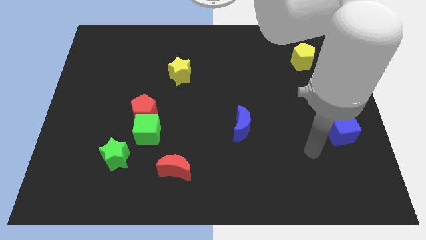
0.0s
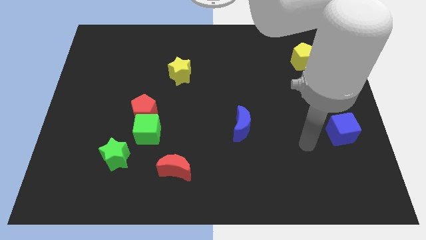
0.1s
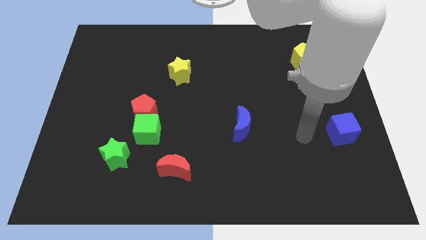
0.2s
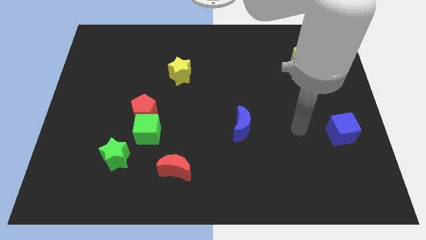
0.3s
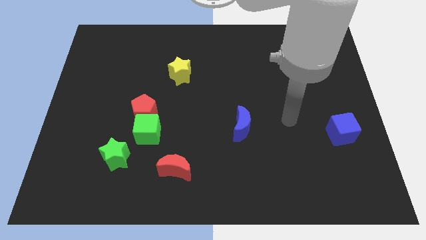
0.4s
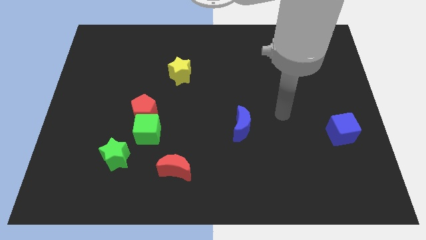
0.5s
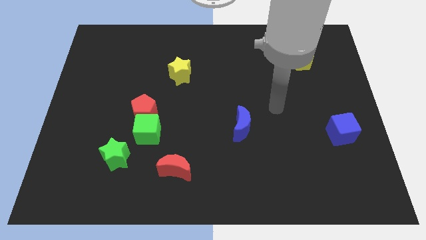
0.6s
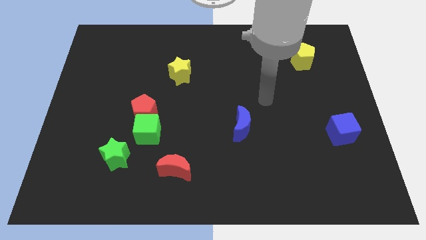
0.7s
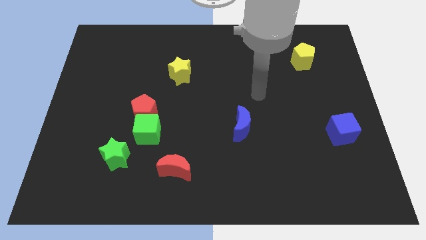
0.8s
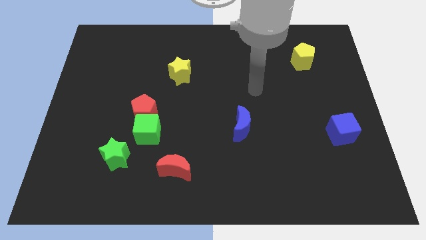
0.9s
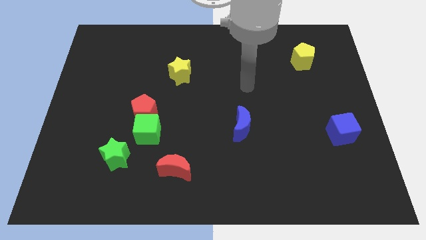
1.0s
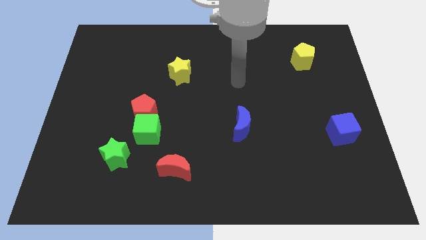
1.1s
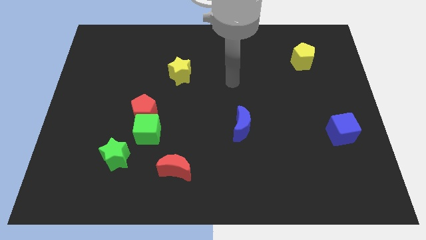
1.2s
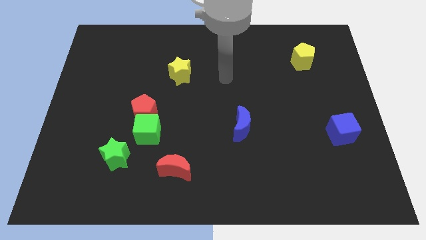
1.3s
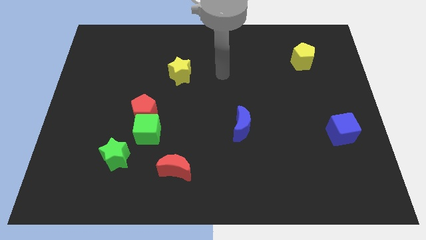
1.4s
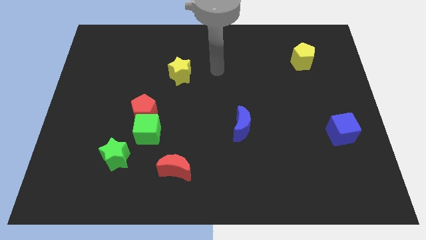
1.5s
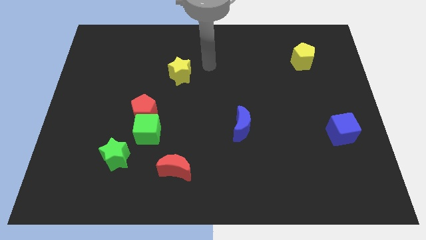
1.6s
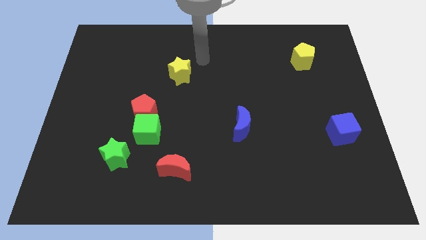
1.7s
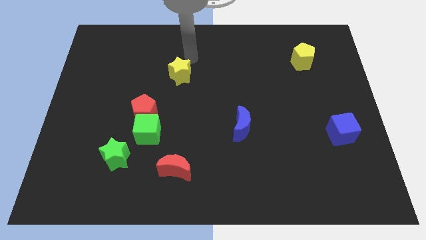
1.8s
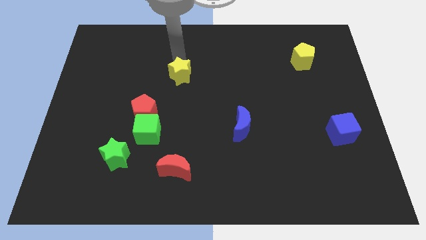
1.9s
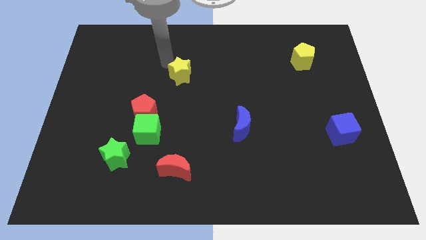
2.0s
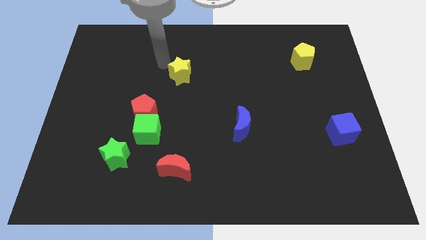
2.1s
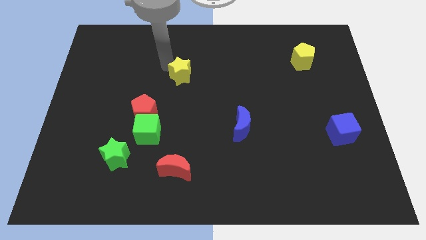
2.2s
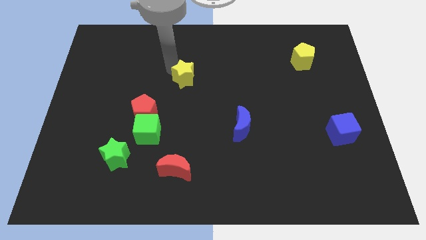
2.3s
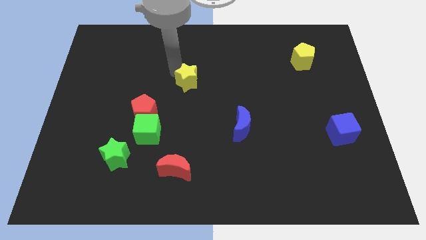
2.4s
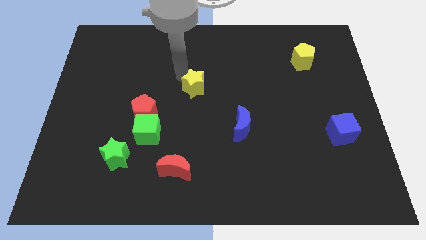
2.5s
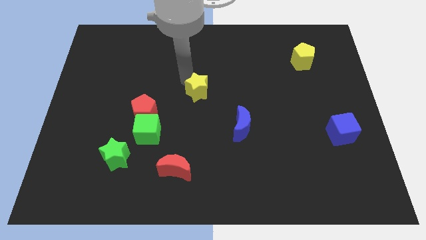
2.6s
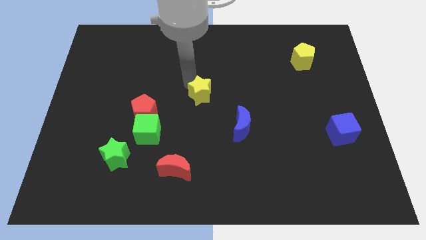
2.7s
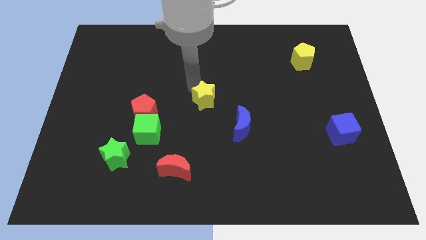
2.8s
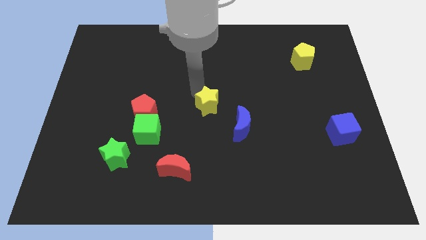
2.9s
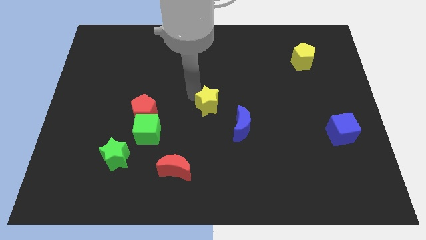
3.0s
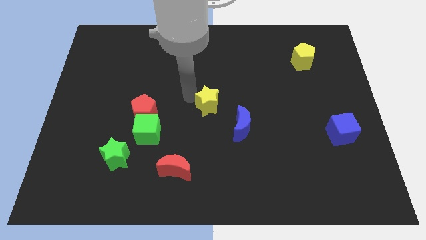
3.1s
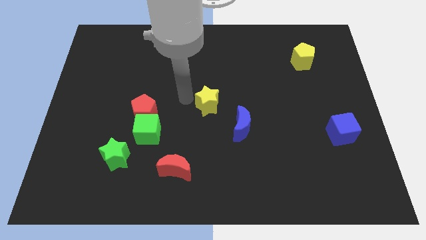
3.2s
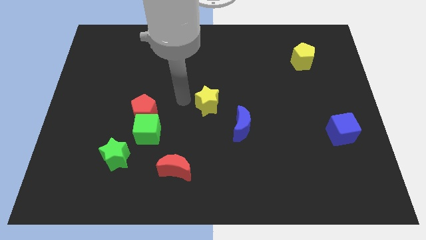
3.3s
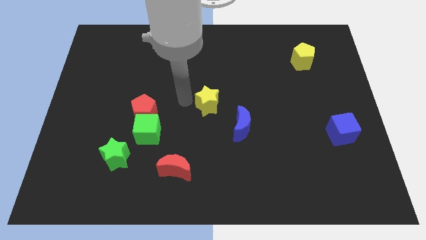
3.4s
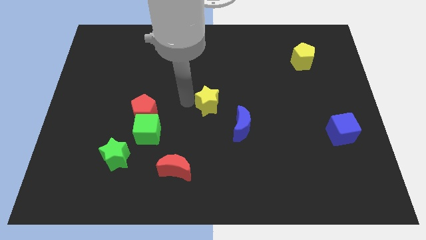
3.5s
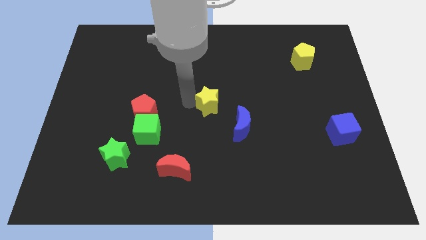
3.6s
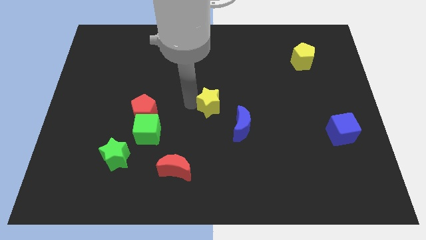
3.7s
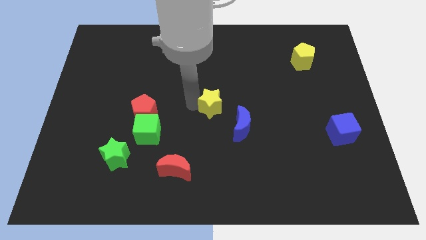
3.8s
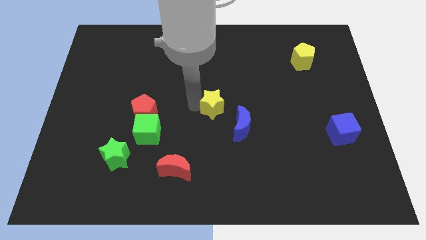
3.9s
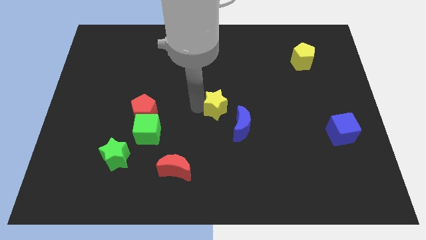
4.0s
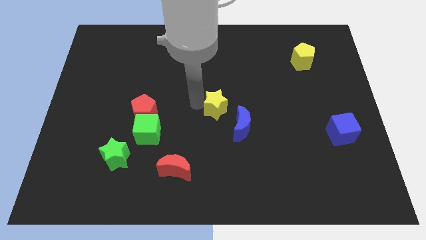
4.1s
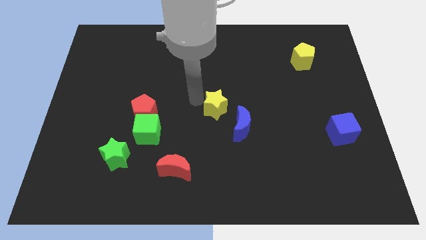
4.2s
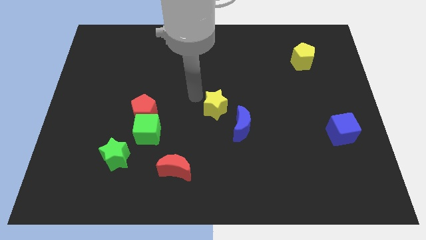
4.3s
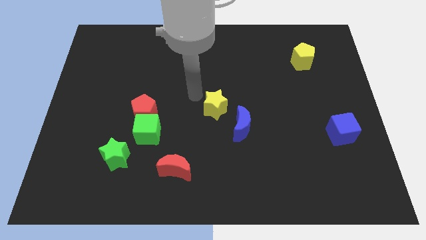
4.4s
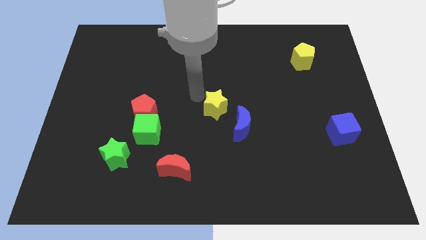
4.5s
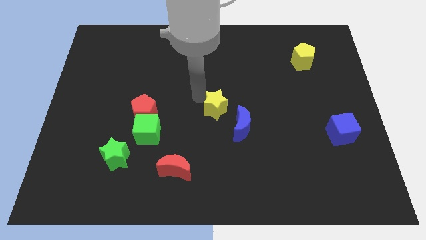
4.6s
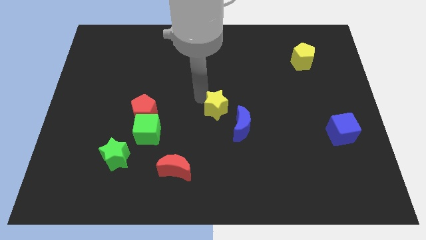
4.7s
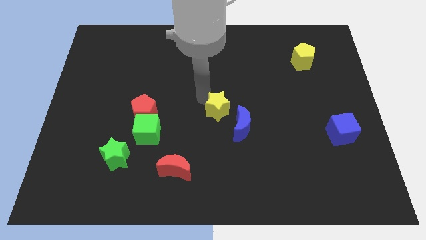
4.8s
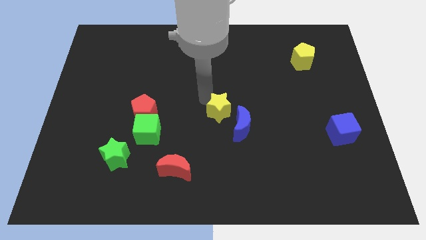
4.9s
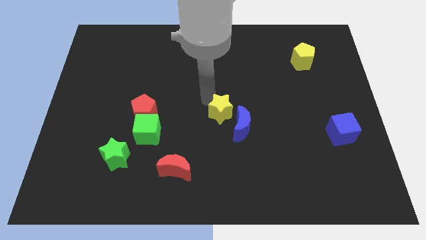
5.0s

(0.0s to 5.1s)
slide the yellow star close to the blue moon

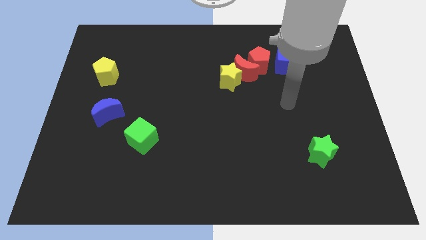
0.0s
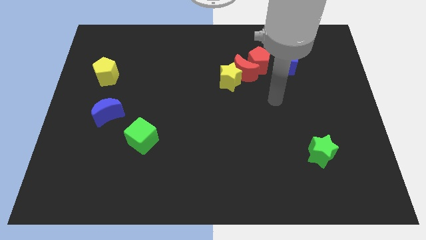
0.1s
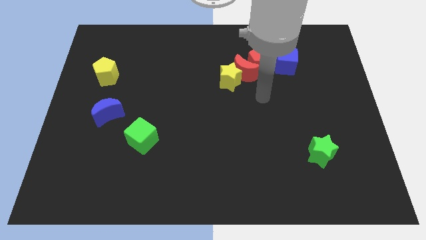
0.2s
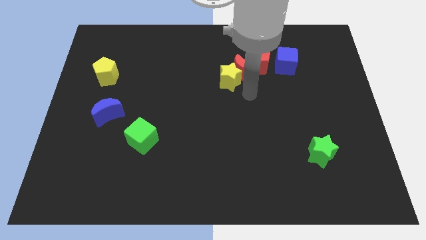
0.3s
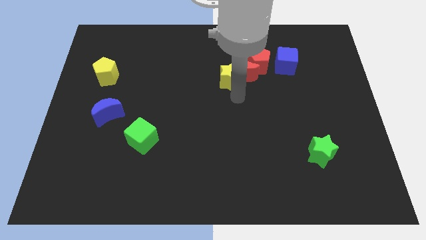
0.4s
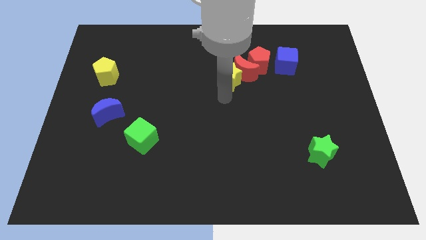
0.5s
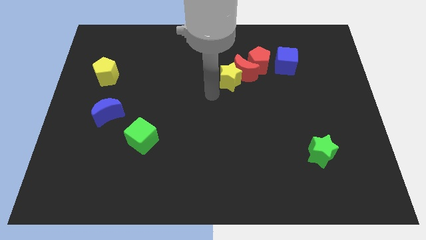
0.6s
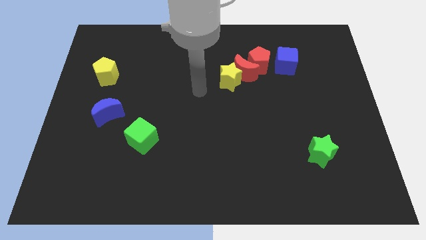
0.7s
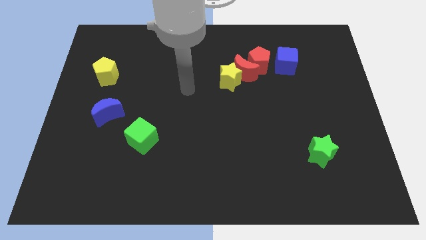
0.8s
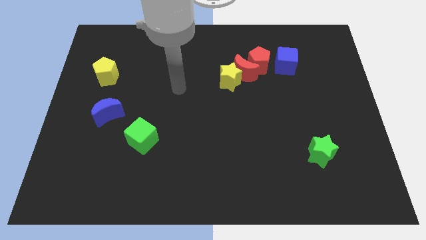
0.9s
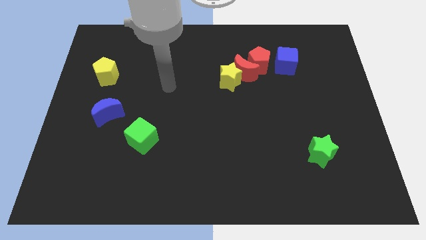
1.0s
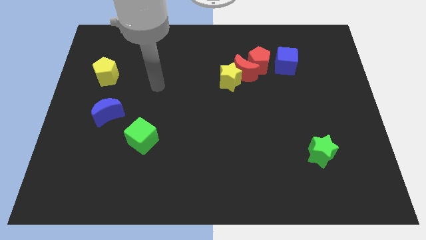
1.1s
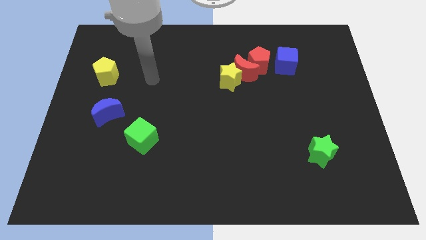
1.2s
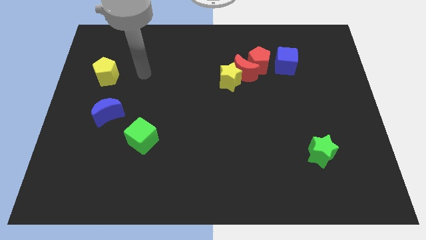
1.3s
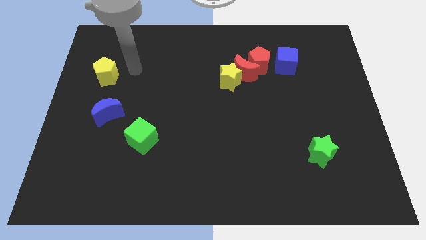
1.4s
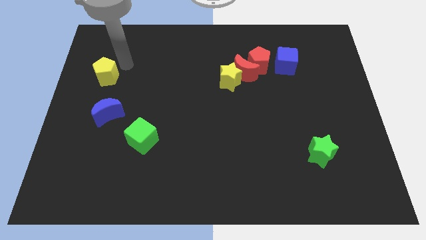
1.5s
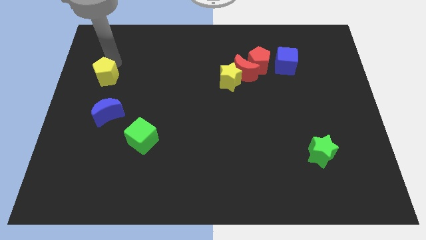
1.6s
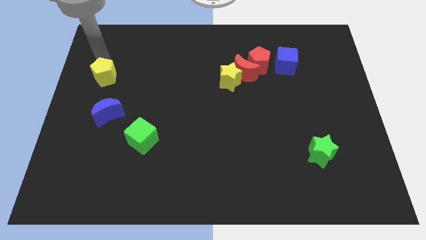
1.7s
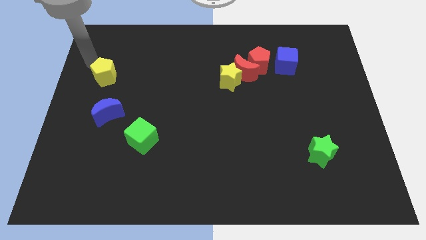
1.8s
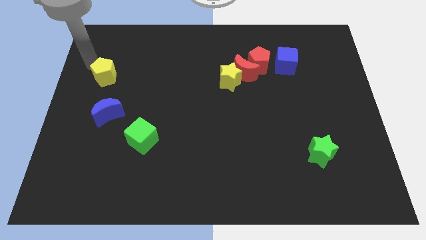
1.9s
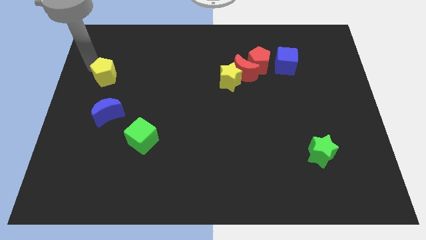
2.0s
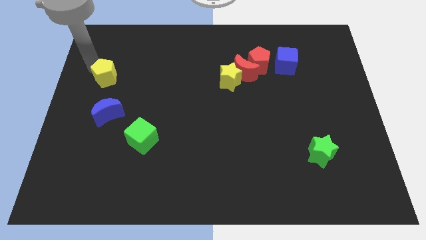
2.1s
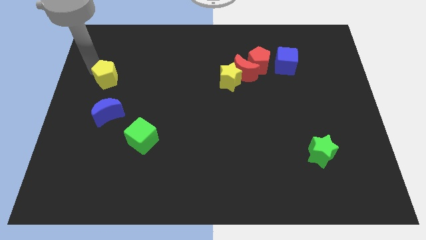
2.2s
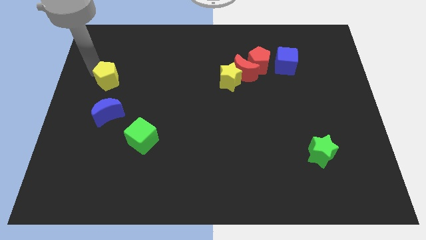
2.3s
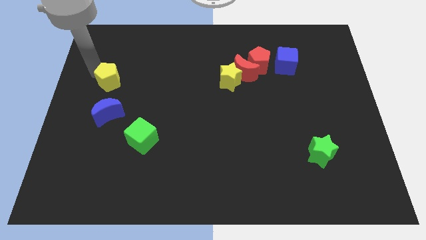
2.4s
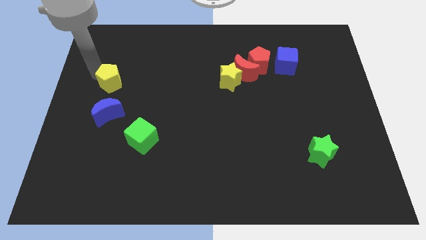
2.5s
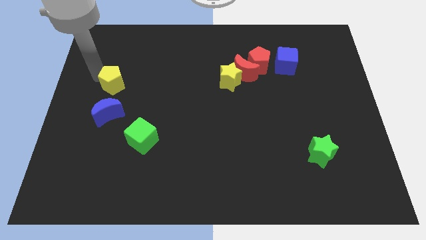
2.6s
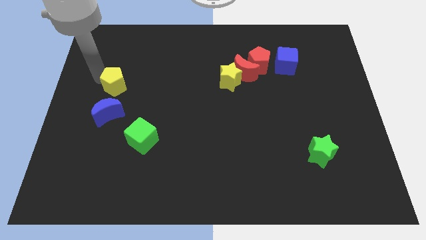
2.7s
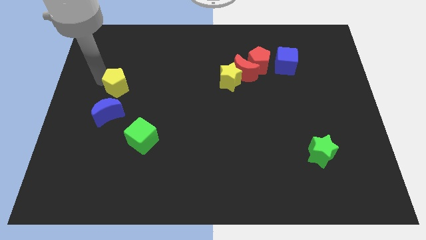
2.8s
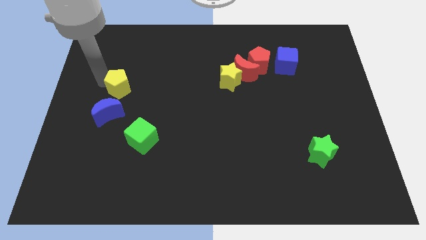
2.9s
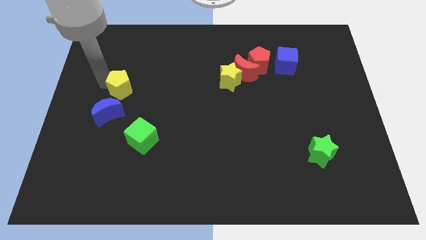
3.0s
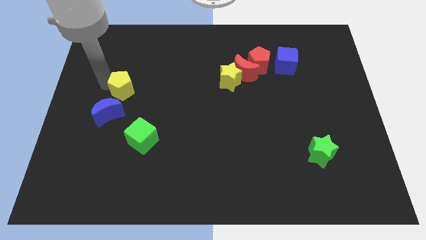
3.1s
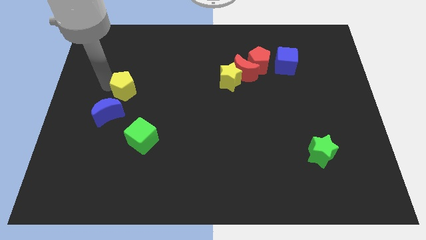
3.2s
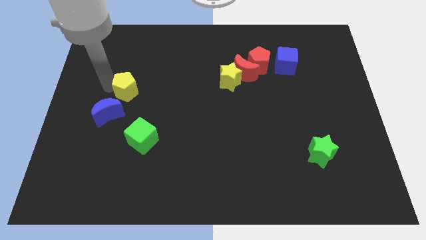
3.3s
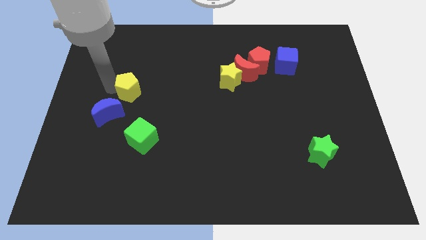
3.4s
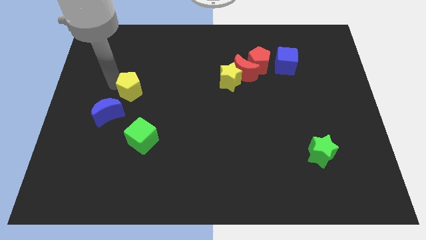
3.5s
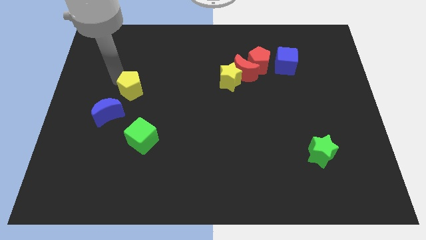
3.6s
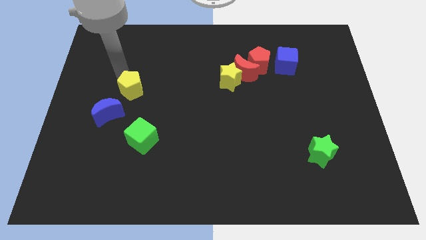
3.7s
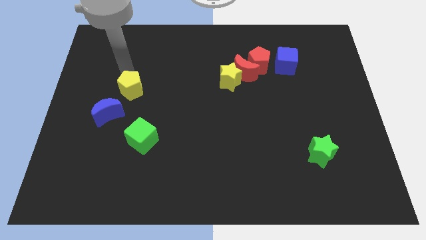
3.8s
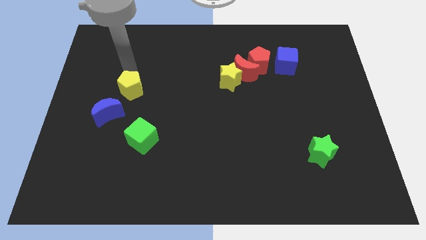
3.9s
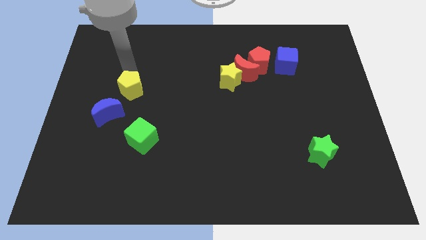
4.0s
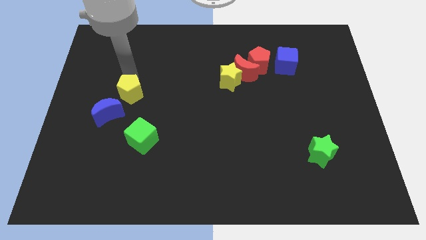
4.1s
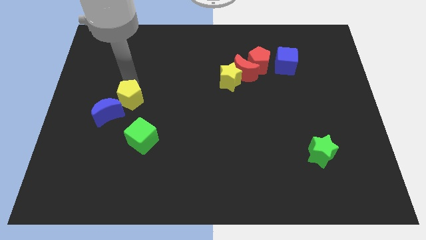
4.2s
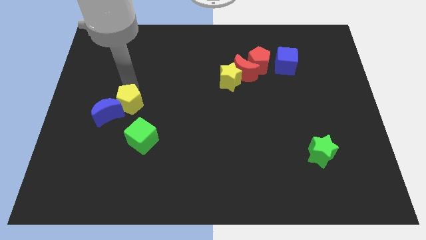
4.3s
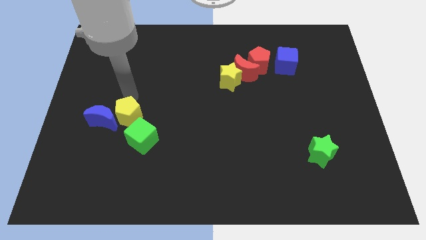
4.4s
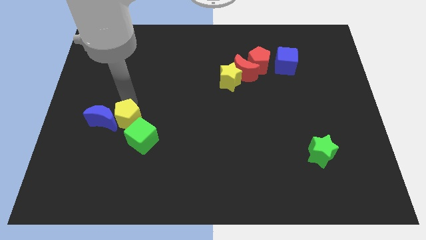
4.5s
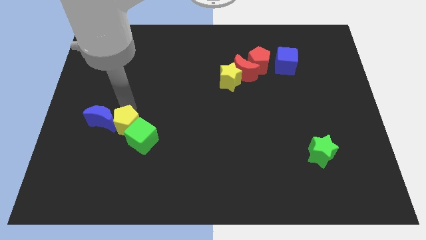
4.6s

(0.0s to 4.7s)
push the yellow pentagon towards the green cube
